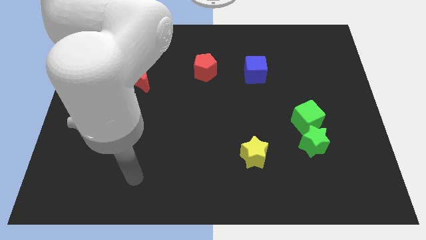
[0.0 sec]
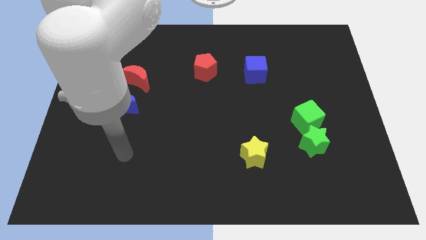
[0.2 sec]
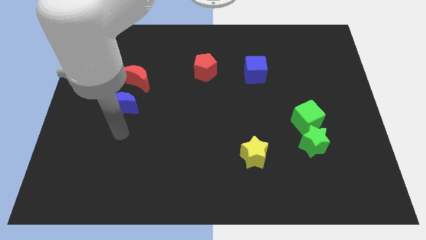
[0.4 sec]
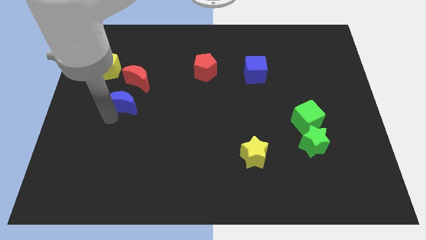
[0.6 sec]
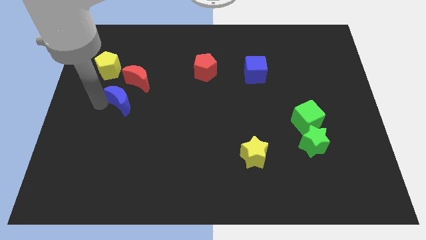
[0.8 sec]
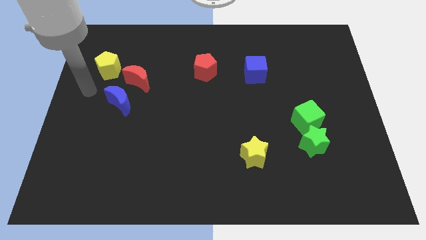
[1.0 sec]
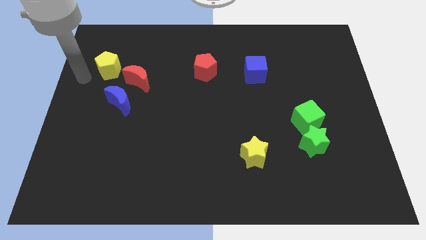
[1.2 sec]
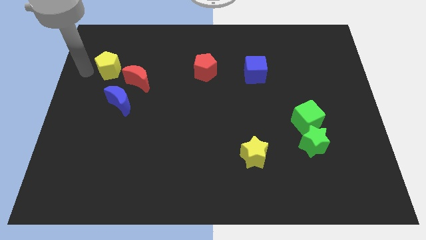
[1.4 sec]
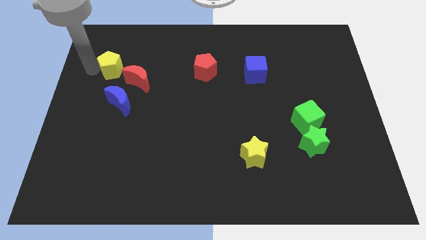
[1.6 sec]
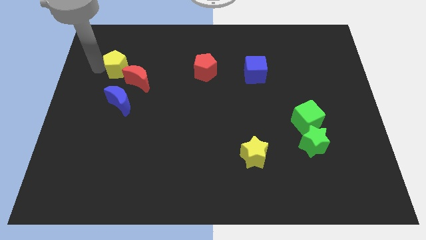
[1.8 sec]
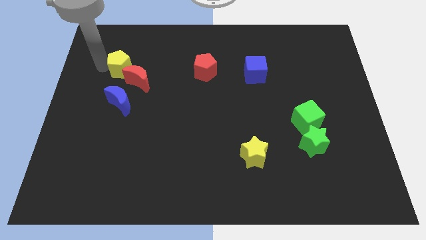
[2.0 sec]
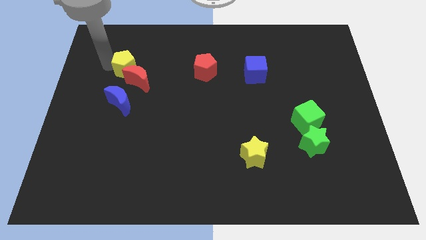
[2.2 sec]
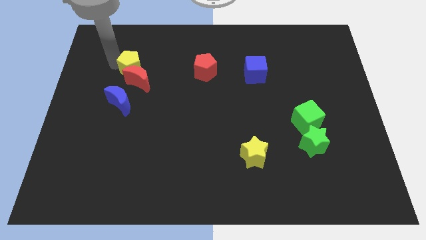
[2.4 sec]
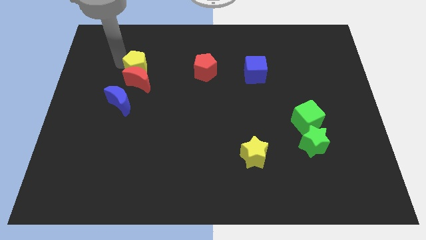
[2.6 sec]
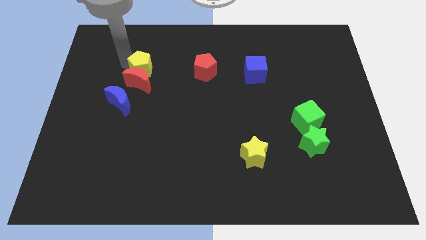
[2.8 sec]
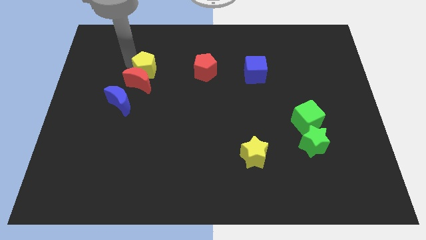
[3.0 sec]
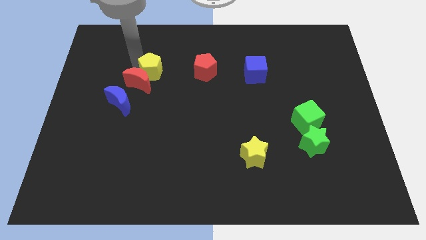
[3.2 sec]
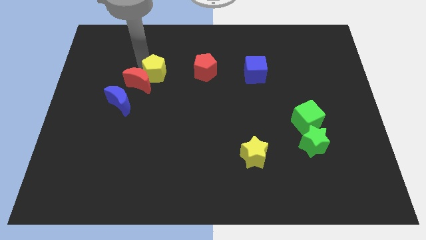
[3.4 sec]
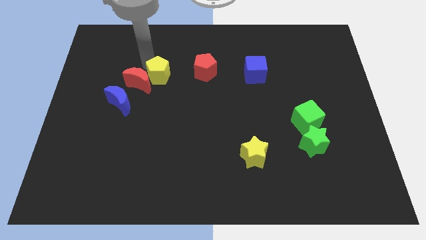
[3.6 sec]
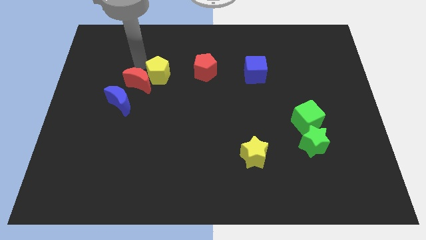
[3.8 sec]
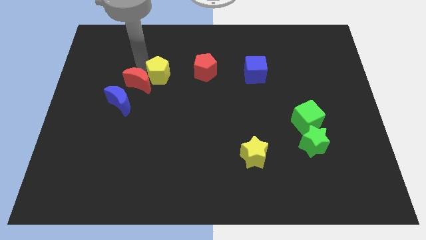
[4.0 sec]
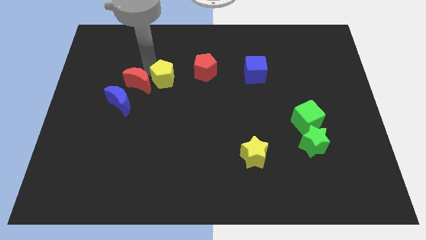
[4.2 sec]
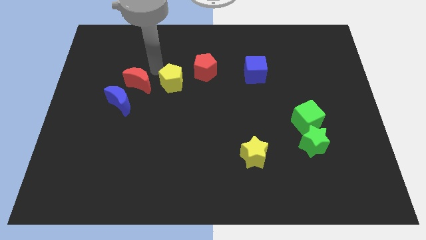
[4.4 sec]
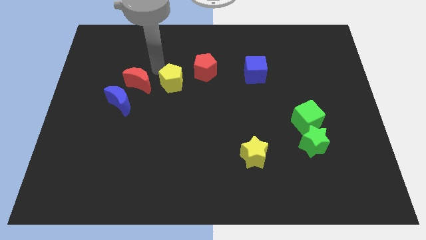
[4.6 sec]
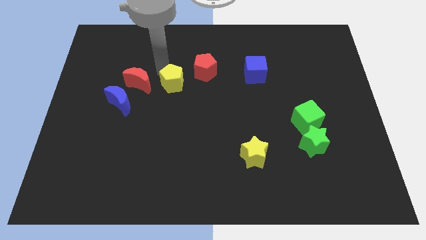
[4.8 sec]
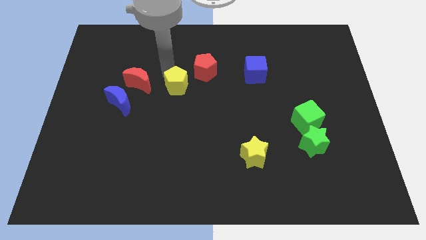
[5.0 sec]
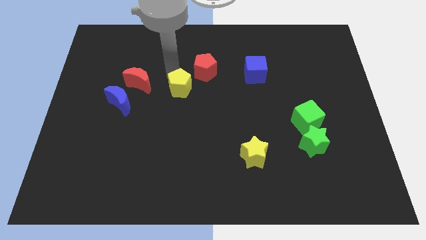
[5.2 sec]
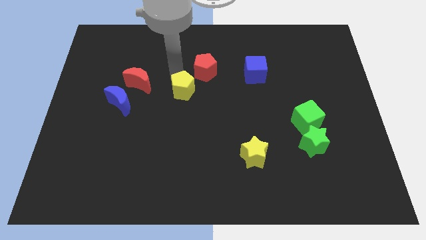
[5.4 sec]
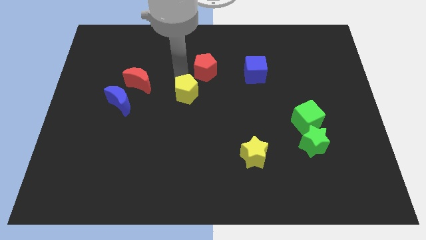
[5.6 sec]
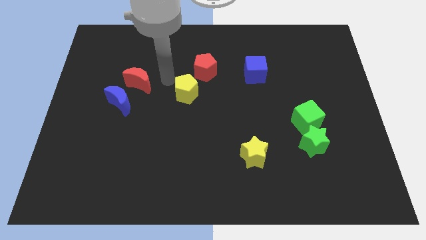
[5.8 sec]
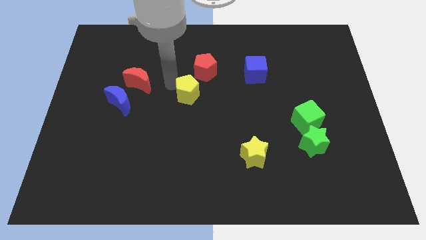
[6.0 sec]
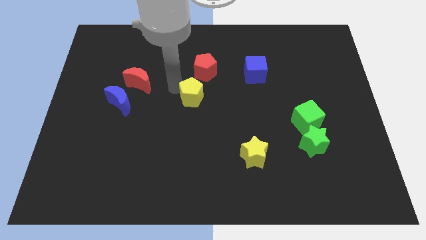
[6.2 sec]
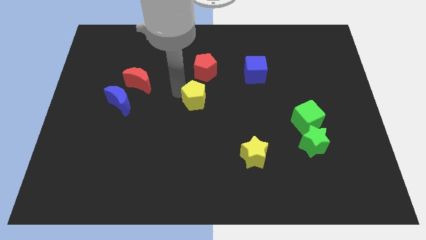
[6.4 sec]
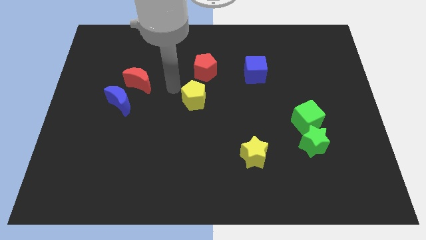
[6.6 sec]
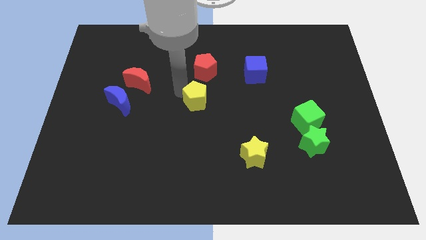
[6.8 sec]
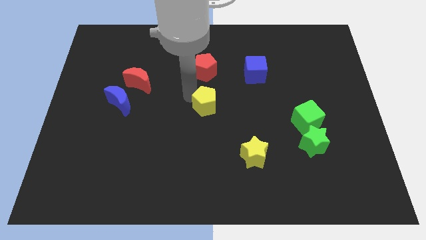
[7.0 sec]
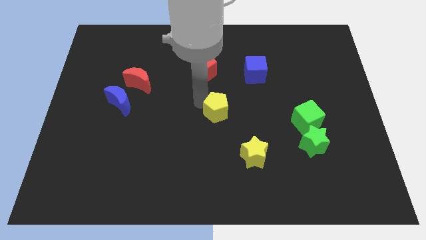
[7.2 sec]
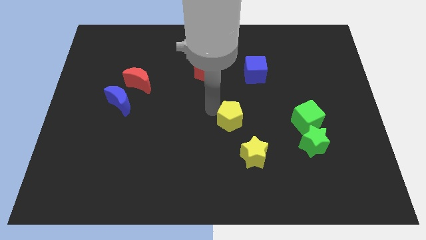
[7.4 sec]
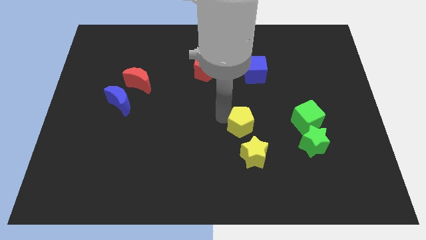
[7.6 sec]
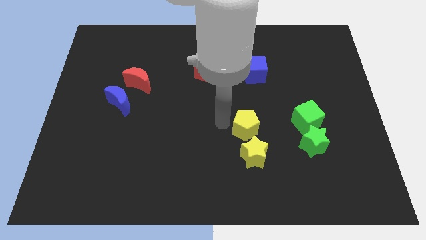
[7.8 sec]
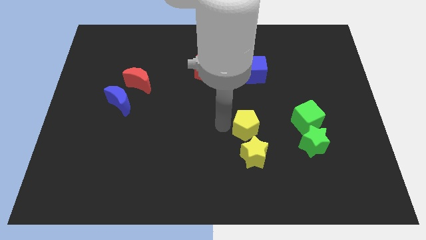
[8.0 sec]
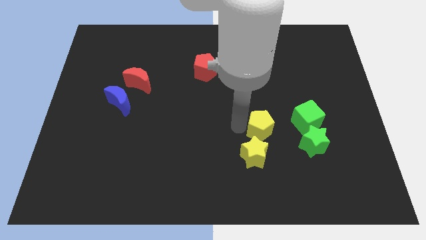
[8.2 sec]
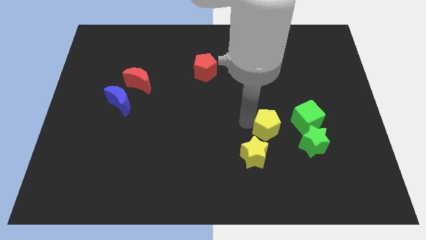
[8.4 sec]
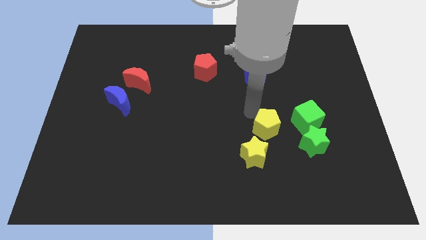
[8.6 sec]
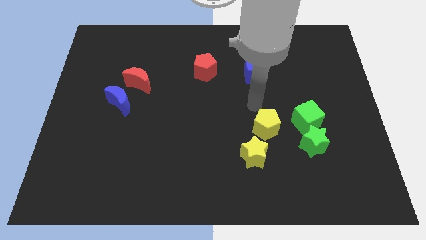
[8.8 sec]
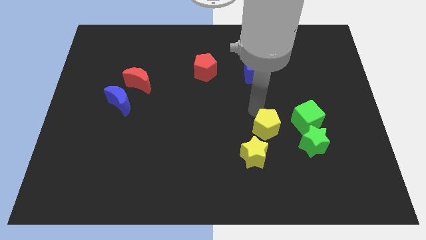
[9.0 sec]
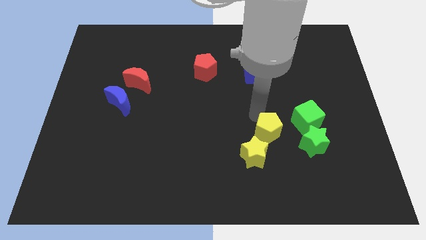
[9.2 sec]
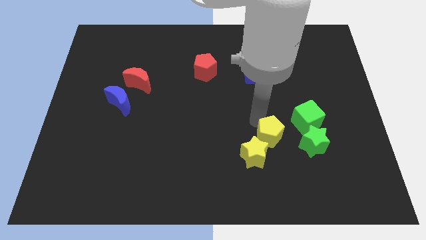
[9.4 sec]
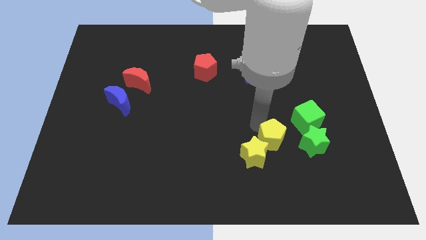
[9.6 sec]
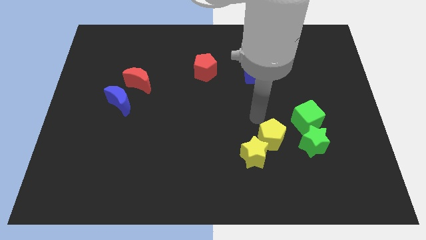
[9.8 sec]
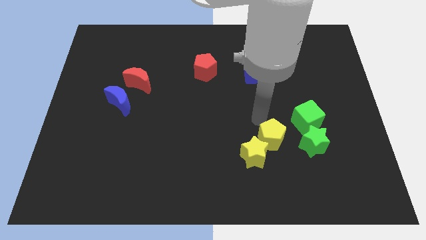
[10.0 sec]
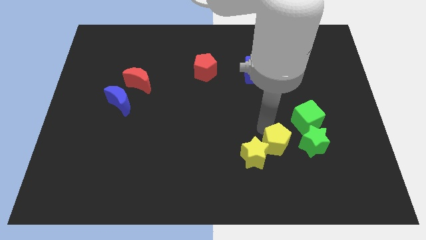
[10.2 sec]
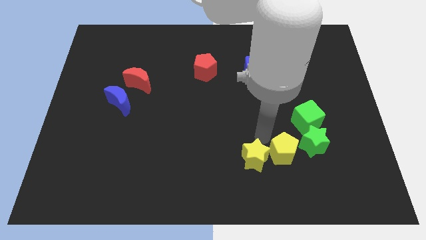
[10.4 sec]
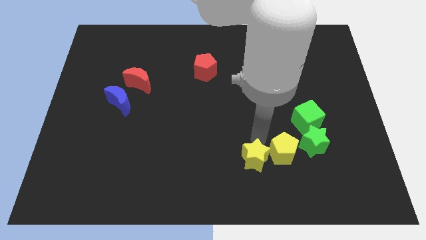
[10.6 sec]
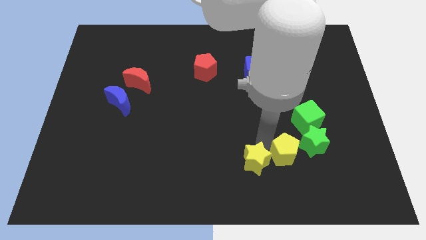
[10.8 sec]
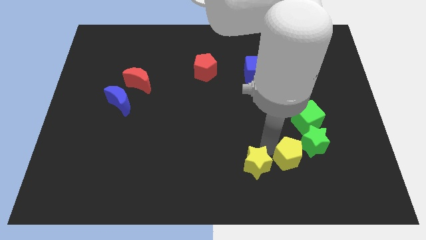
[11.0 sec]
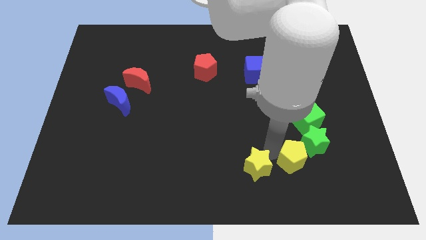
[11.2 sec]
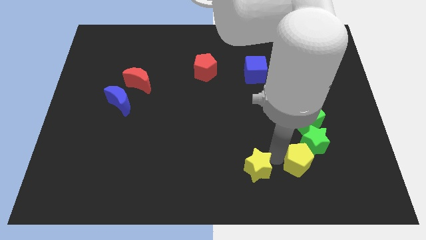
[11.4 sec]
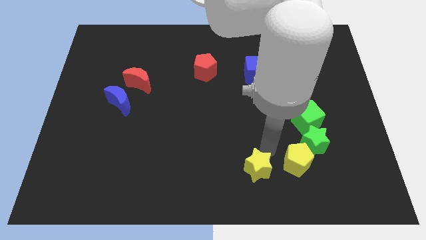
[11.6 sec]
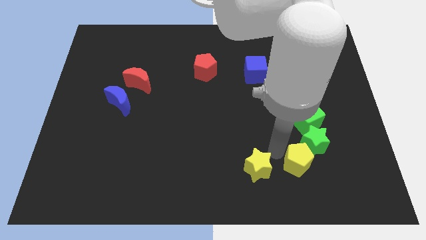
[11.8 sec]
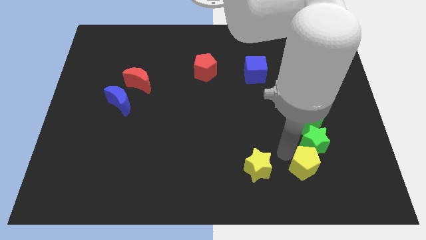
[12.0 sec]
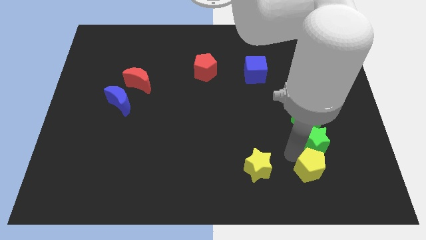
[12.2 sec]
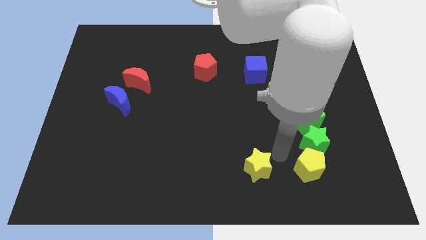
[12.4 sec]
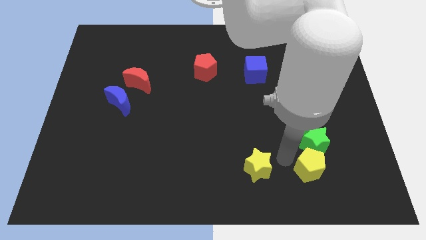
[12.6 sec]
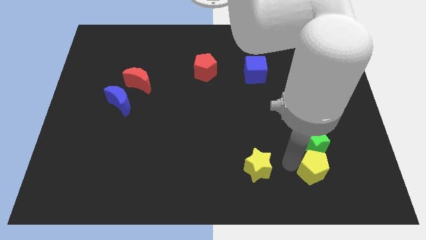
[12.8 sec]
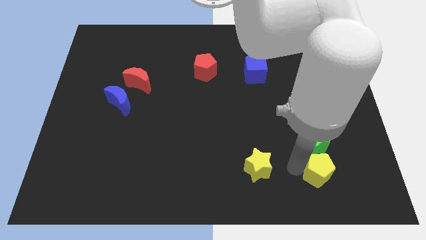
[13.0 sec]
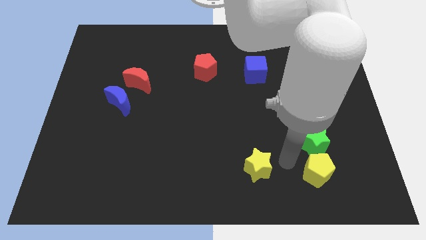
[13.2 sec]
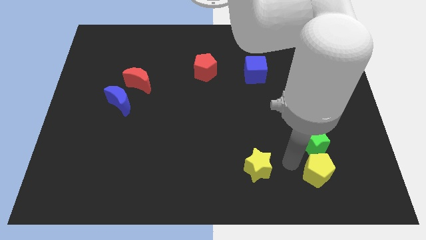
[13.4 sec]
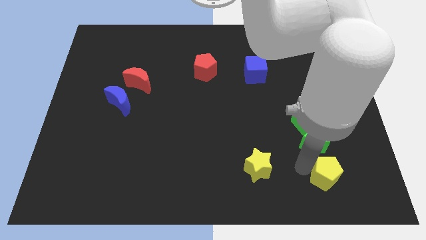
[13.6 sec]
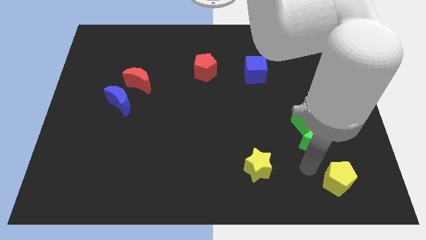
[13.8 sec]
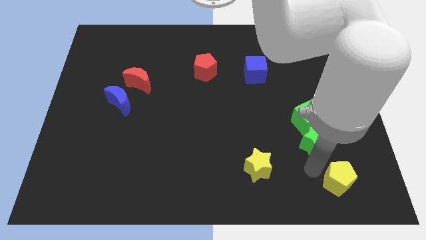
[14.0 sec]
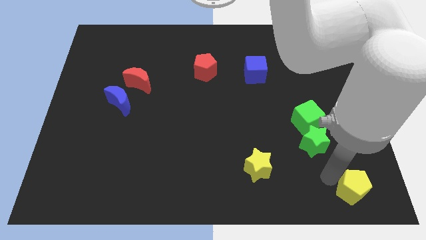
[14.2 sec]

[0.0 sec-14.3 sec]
put the yellow pentagon to the lower right corner
